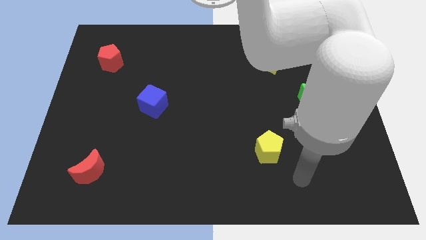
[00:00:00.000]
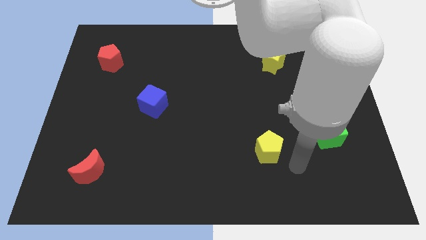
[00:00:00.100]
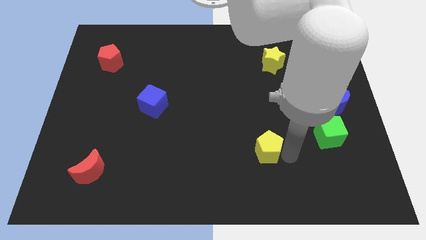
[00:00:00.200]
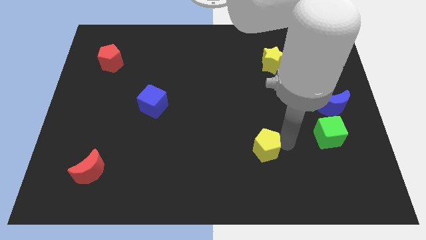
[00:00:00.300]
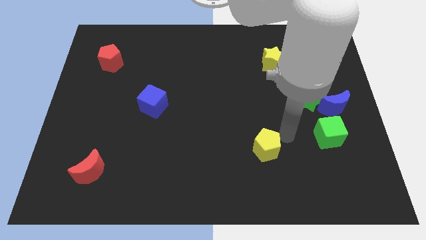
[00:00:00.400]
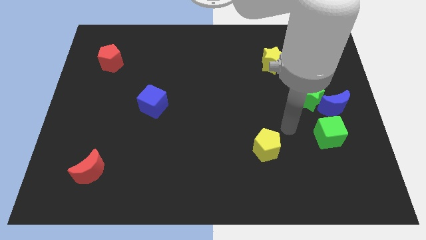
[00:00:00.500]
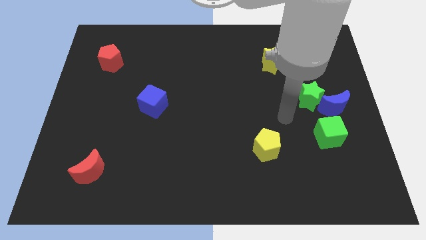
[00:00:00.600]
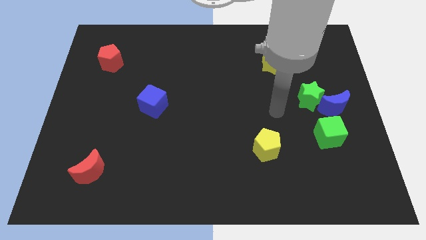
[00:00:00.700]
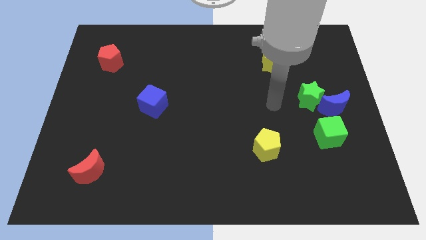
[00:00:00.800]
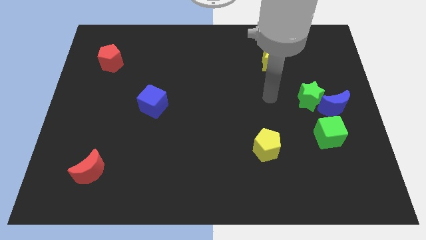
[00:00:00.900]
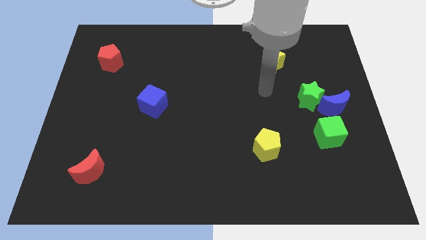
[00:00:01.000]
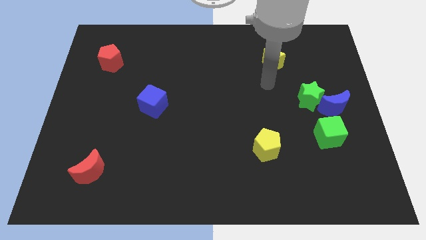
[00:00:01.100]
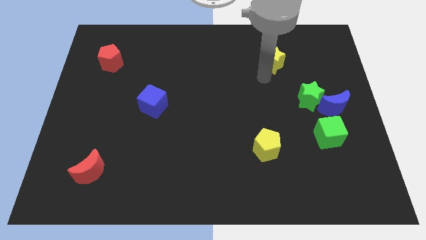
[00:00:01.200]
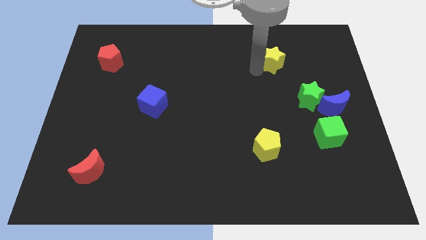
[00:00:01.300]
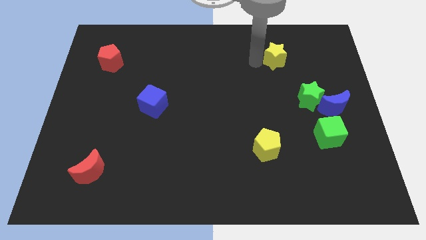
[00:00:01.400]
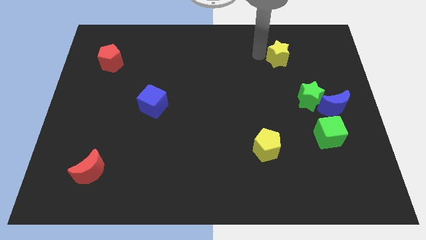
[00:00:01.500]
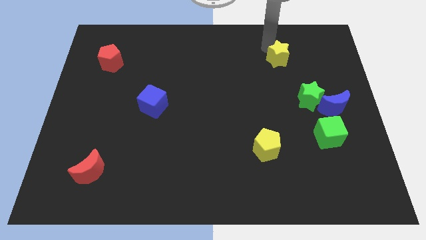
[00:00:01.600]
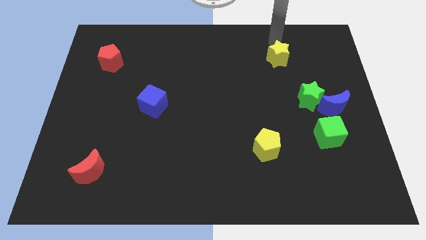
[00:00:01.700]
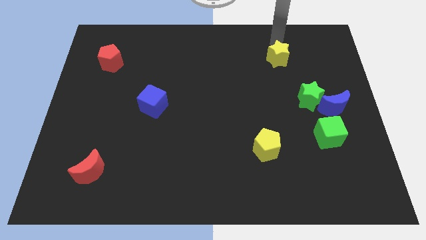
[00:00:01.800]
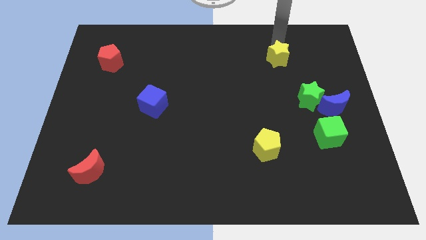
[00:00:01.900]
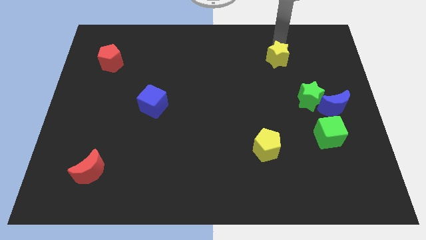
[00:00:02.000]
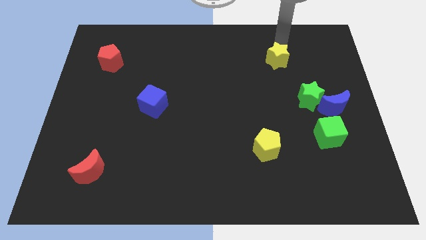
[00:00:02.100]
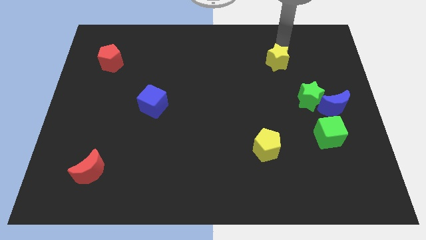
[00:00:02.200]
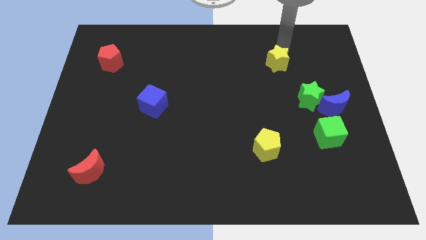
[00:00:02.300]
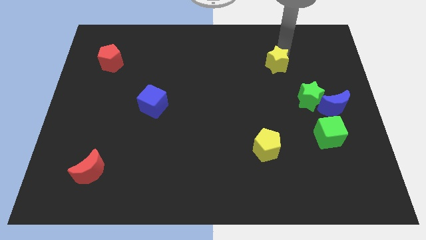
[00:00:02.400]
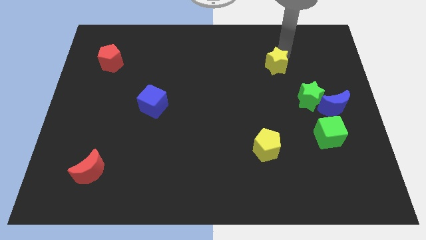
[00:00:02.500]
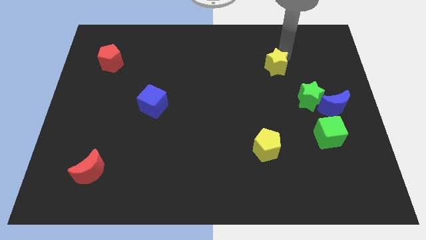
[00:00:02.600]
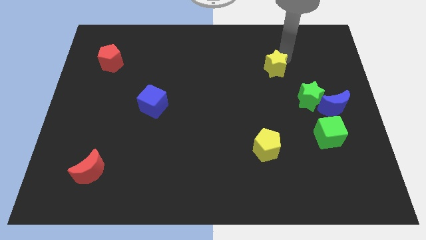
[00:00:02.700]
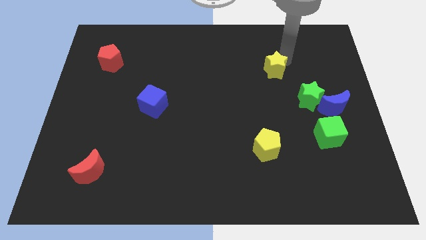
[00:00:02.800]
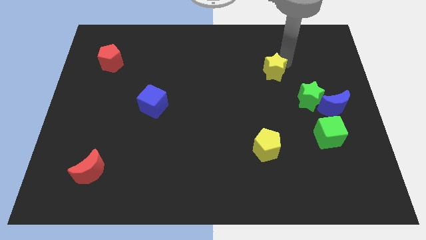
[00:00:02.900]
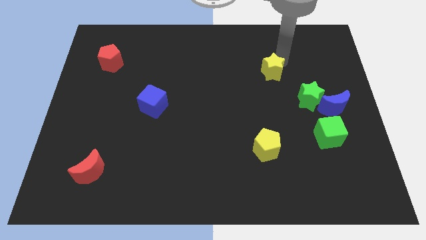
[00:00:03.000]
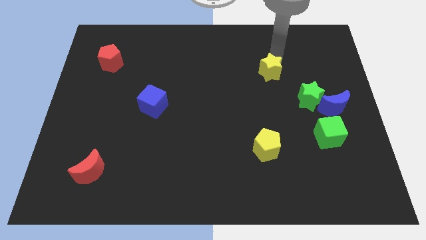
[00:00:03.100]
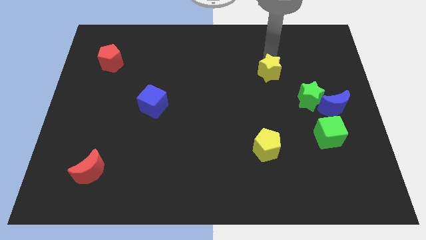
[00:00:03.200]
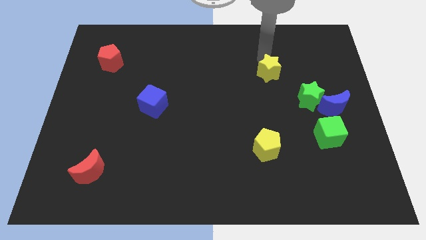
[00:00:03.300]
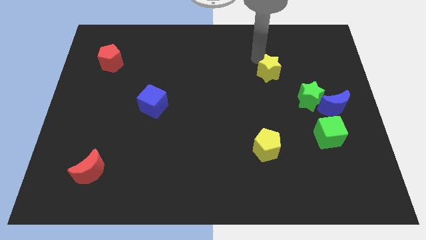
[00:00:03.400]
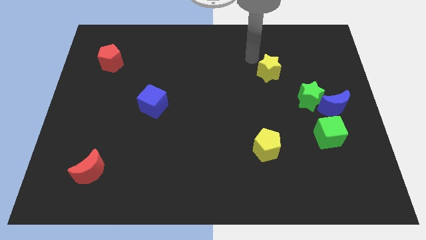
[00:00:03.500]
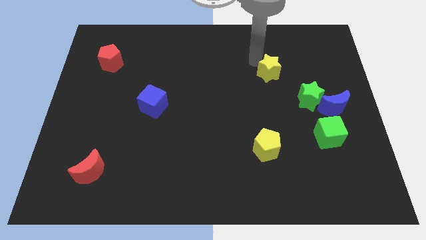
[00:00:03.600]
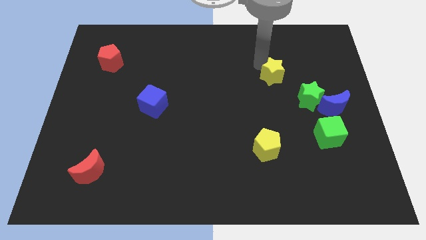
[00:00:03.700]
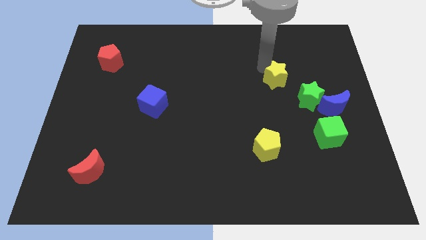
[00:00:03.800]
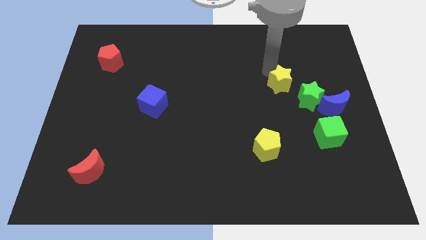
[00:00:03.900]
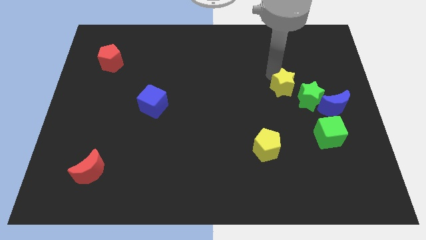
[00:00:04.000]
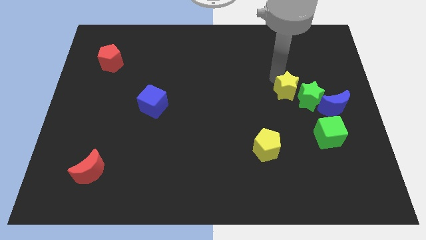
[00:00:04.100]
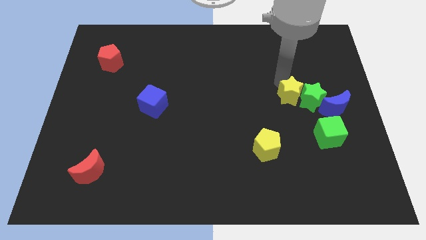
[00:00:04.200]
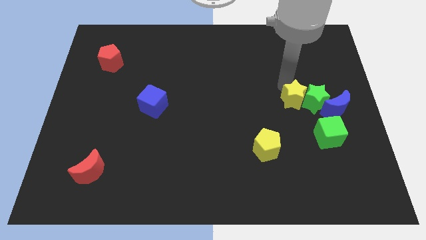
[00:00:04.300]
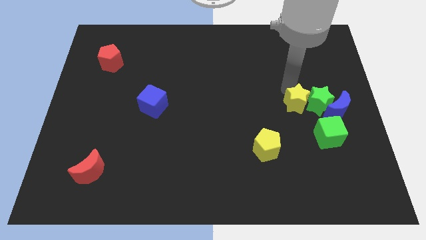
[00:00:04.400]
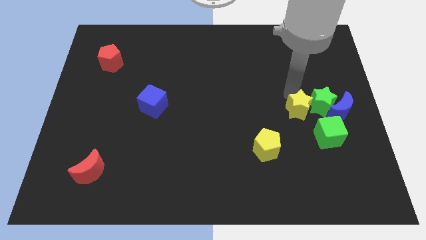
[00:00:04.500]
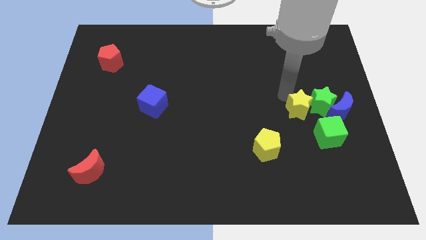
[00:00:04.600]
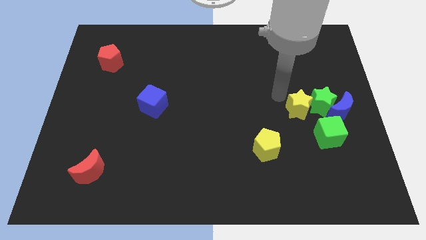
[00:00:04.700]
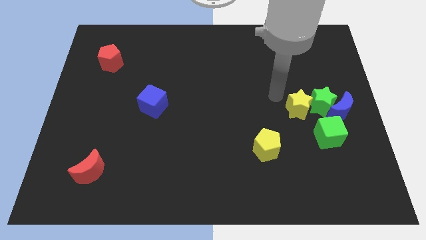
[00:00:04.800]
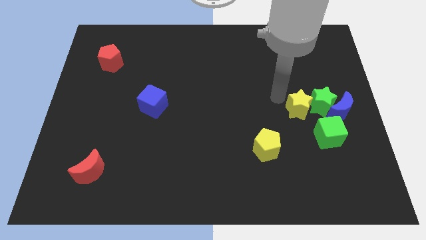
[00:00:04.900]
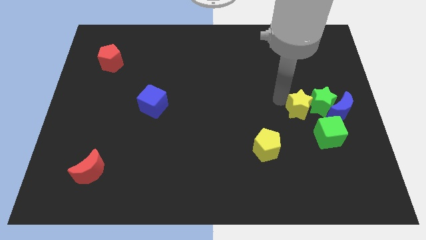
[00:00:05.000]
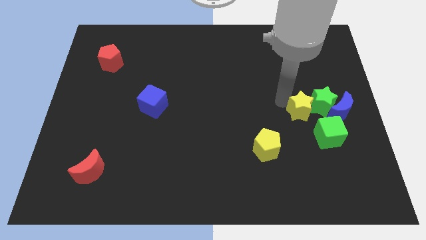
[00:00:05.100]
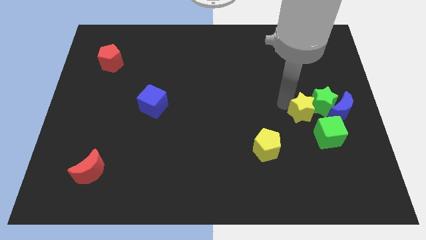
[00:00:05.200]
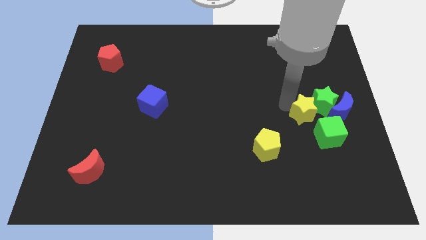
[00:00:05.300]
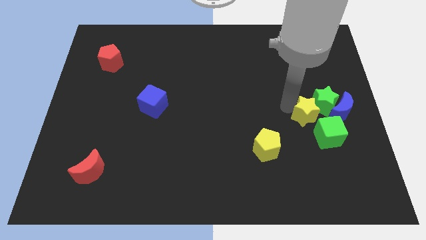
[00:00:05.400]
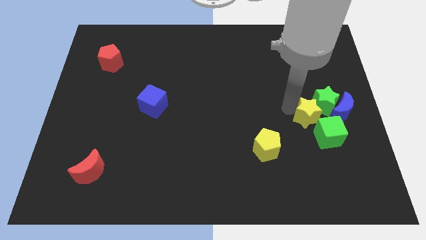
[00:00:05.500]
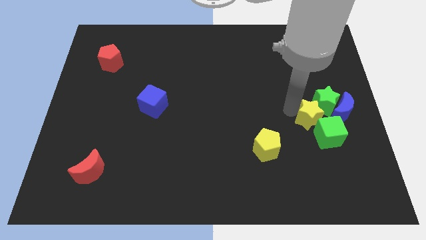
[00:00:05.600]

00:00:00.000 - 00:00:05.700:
put the yellow star towards the green cube
